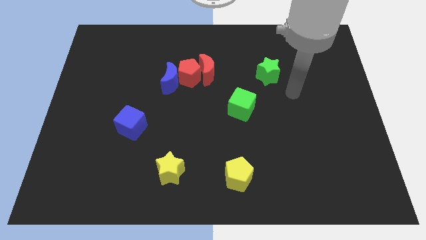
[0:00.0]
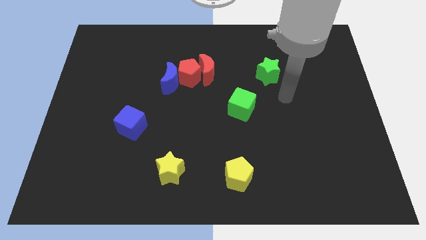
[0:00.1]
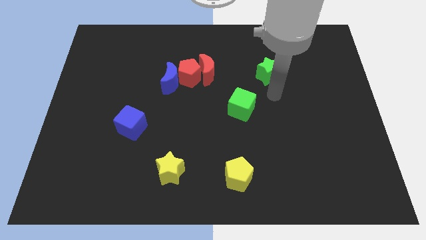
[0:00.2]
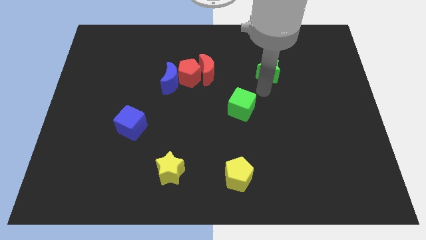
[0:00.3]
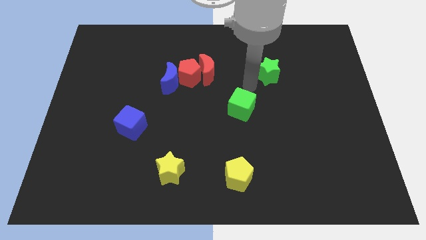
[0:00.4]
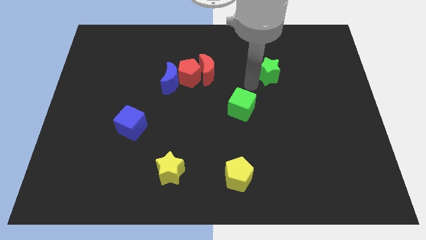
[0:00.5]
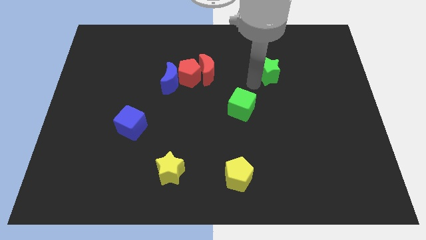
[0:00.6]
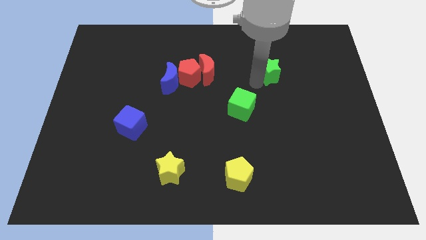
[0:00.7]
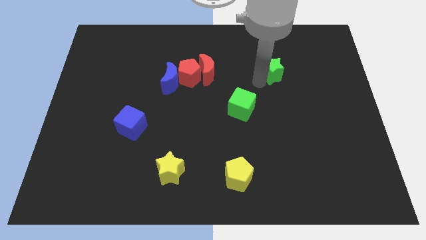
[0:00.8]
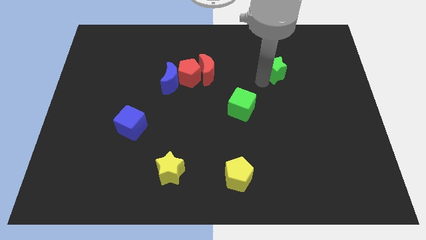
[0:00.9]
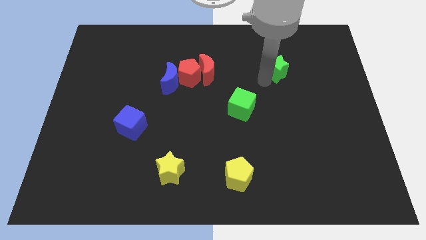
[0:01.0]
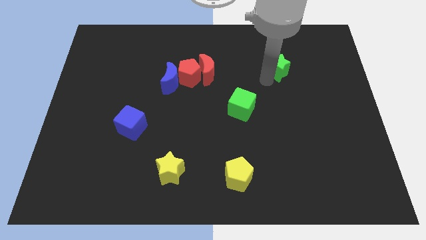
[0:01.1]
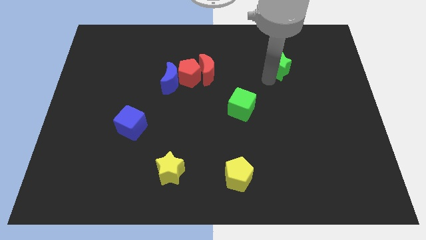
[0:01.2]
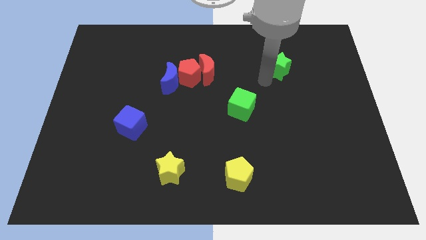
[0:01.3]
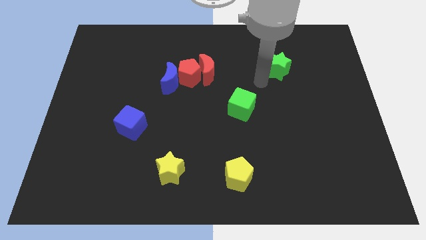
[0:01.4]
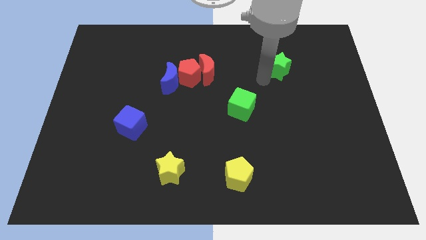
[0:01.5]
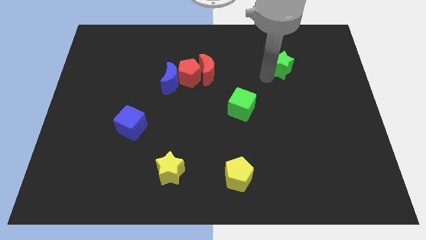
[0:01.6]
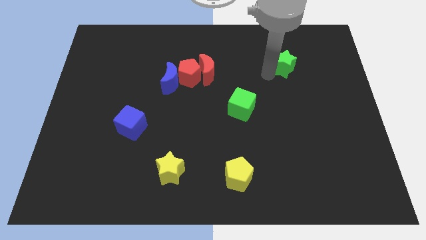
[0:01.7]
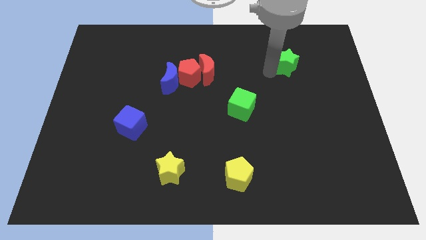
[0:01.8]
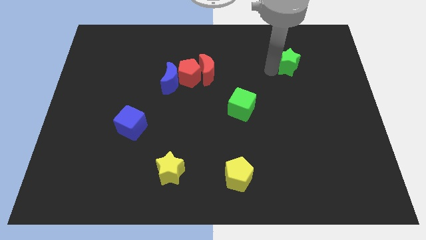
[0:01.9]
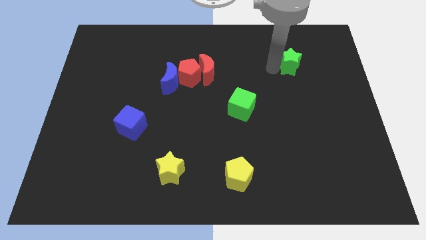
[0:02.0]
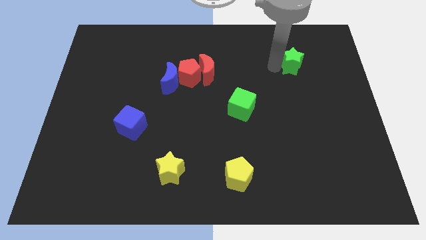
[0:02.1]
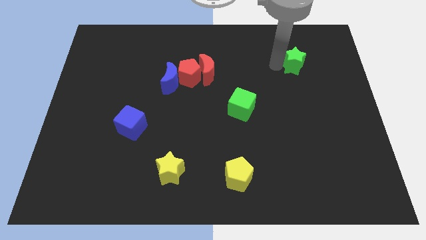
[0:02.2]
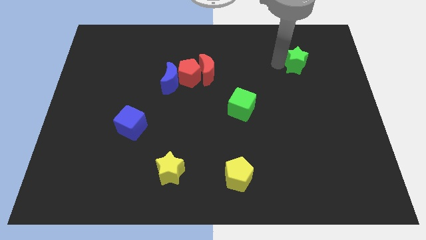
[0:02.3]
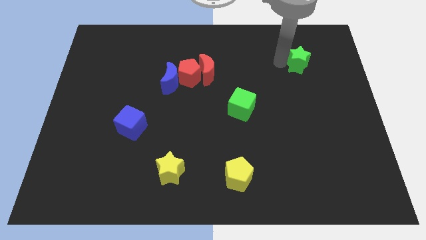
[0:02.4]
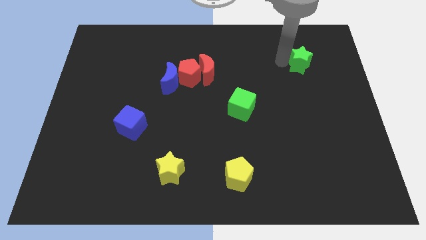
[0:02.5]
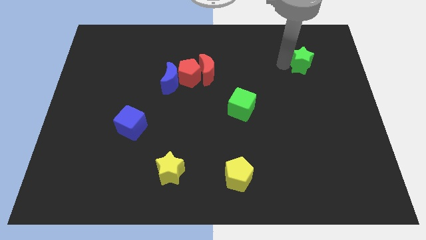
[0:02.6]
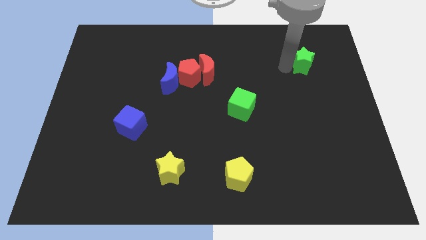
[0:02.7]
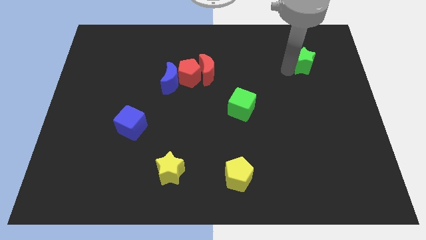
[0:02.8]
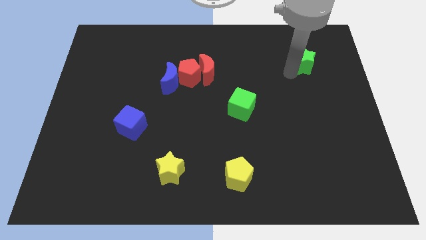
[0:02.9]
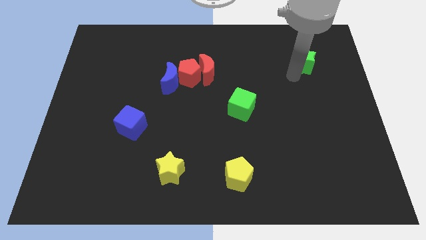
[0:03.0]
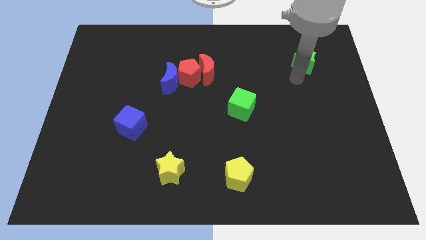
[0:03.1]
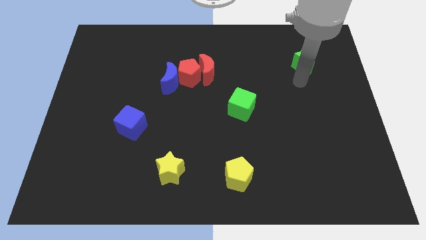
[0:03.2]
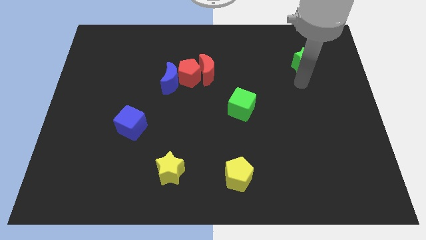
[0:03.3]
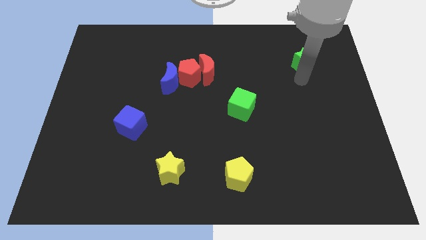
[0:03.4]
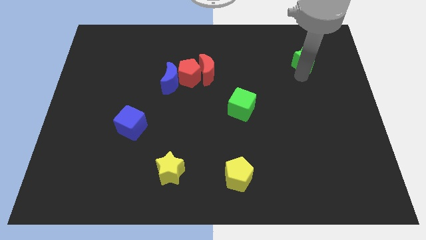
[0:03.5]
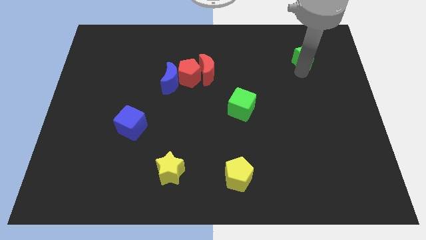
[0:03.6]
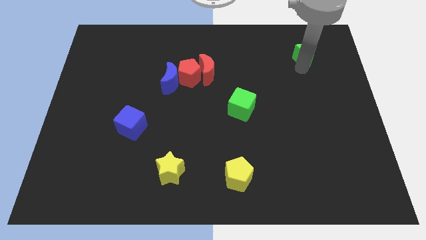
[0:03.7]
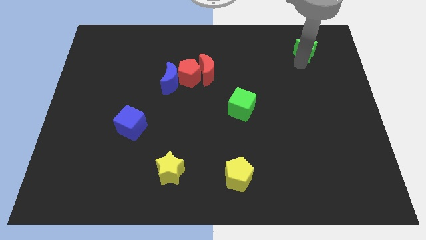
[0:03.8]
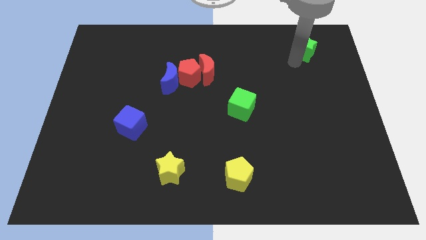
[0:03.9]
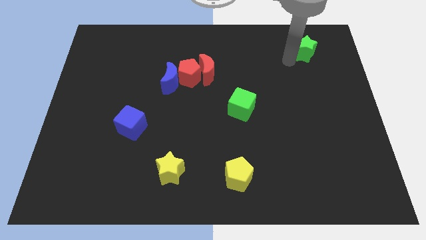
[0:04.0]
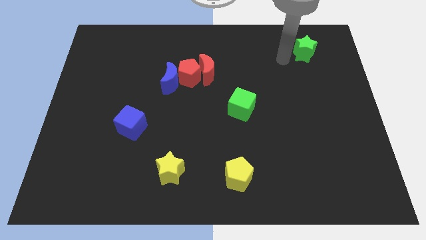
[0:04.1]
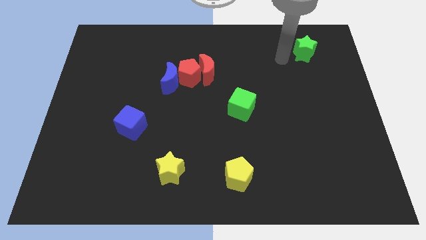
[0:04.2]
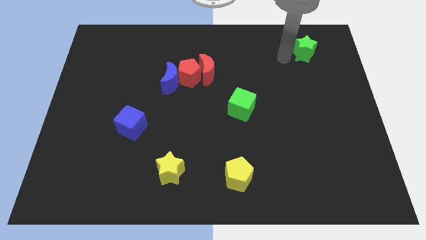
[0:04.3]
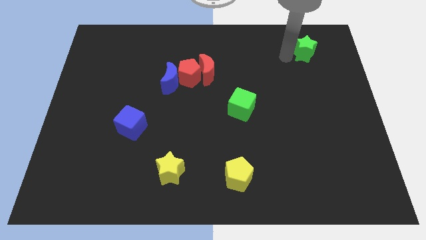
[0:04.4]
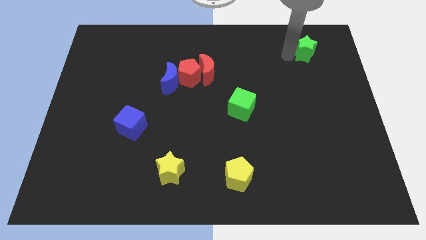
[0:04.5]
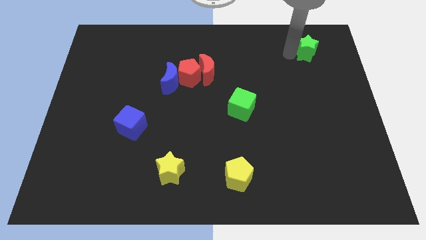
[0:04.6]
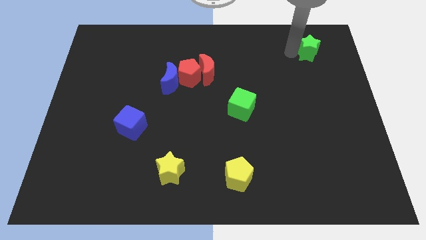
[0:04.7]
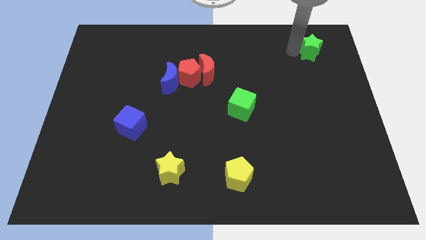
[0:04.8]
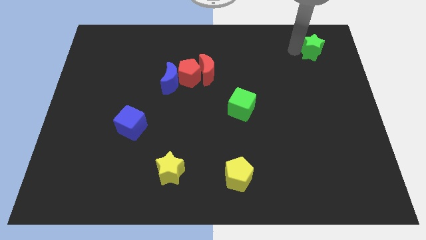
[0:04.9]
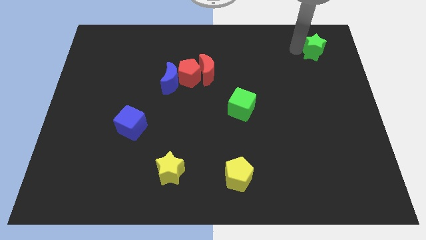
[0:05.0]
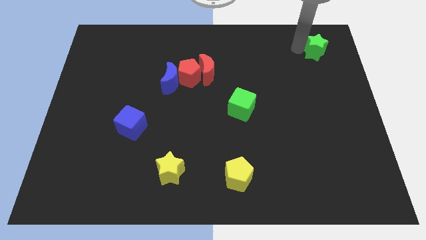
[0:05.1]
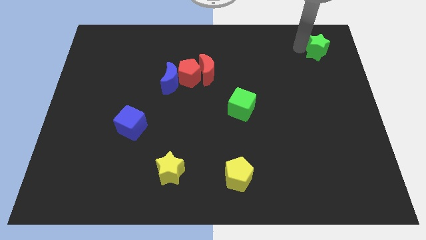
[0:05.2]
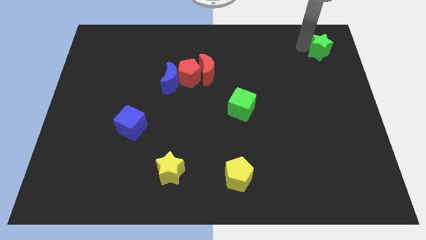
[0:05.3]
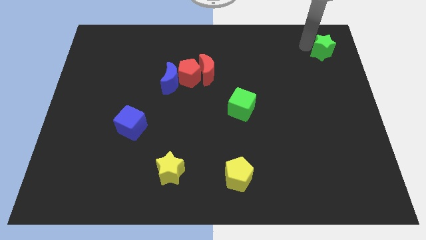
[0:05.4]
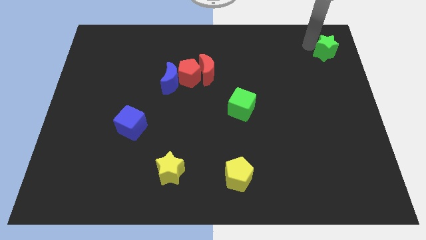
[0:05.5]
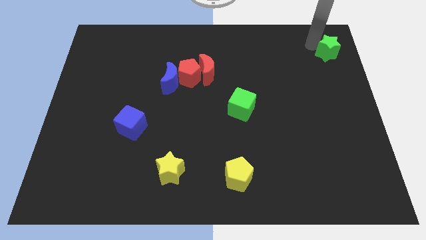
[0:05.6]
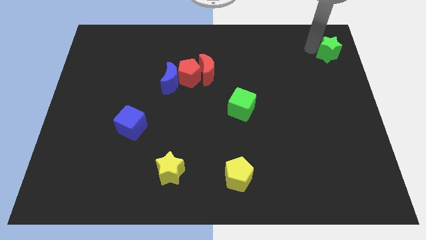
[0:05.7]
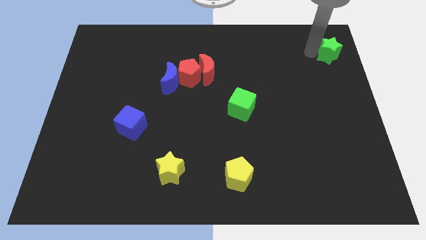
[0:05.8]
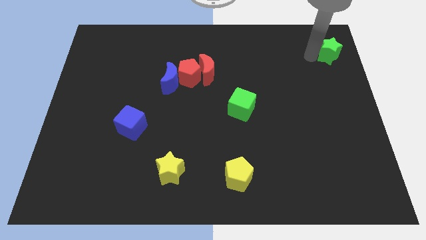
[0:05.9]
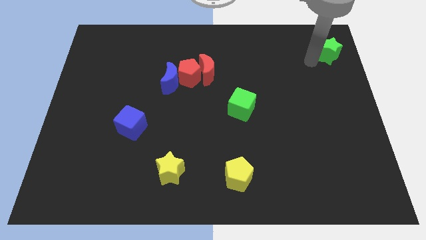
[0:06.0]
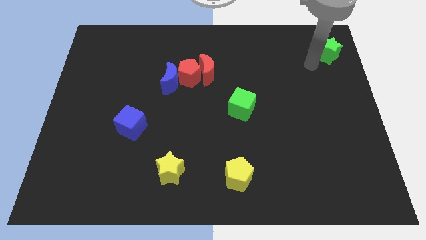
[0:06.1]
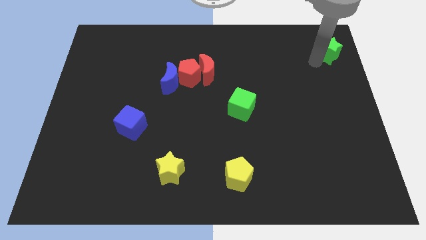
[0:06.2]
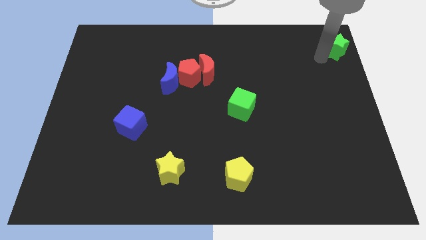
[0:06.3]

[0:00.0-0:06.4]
move the green star to the top right of the board
